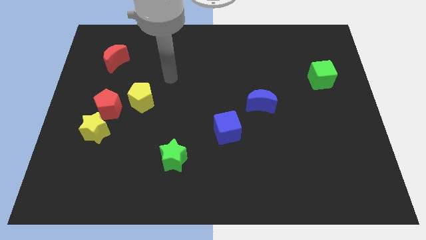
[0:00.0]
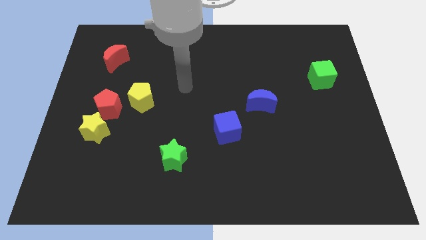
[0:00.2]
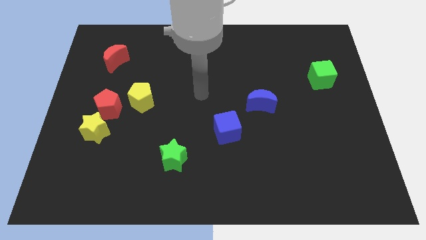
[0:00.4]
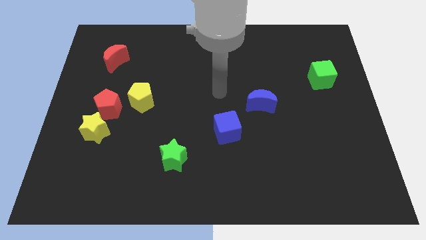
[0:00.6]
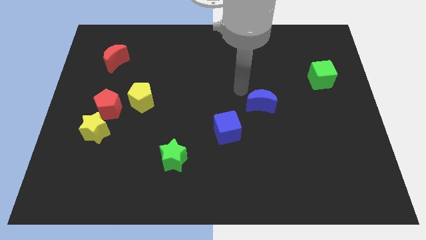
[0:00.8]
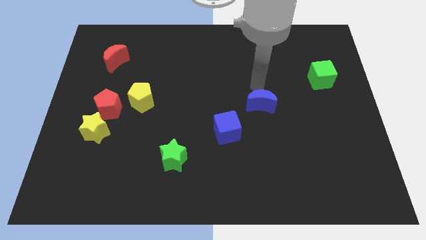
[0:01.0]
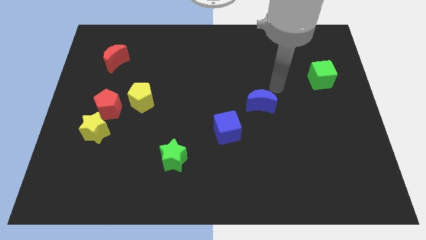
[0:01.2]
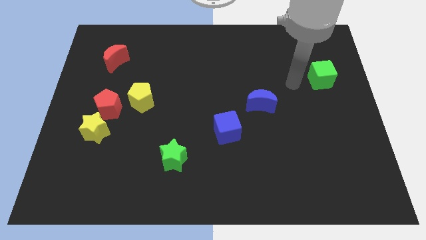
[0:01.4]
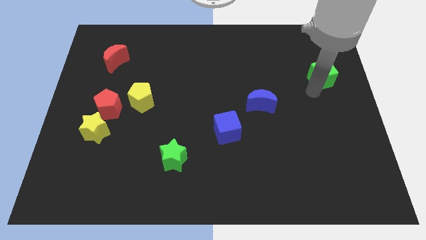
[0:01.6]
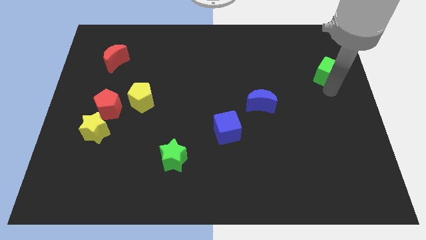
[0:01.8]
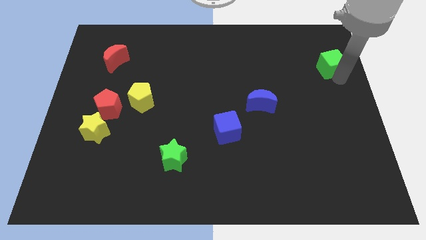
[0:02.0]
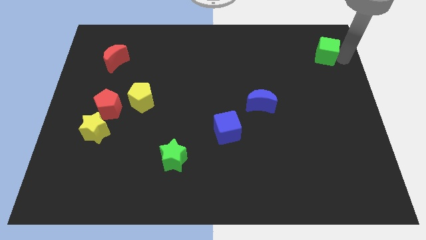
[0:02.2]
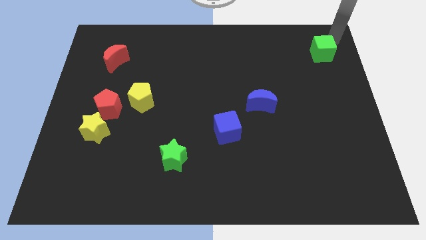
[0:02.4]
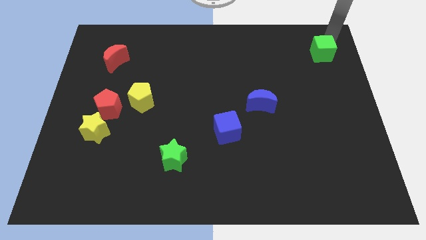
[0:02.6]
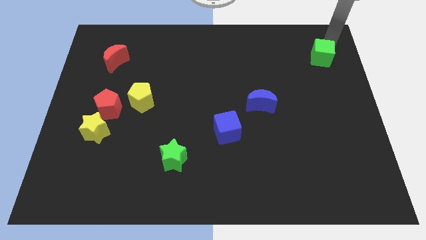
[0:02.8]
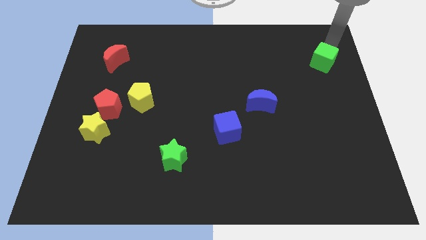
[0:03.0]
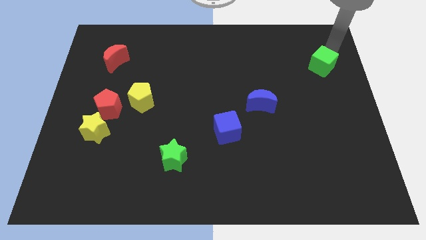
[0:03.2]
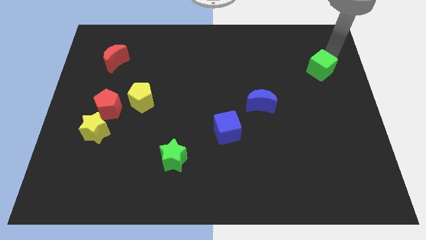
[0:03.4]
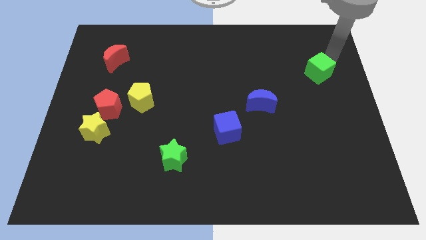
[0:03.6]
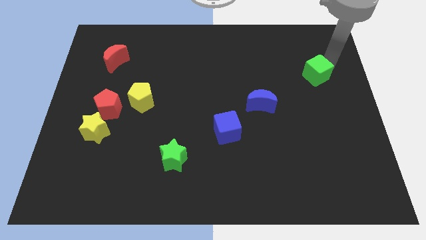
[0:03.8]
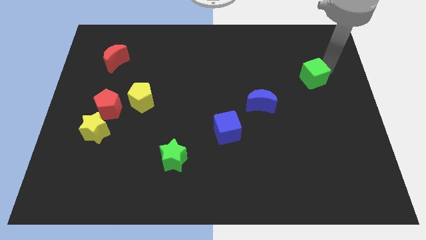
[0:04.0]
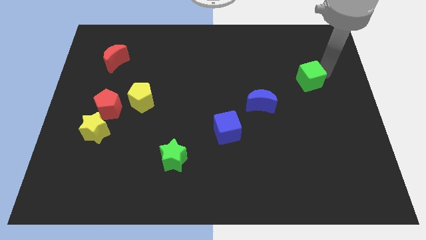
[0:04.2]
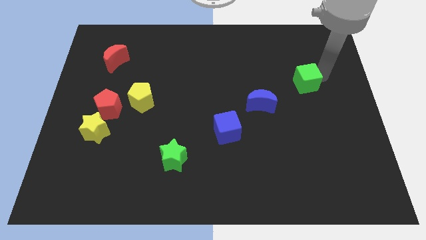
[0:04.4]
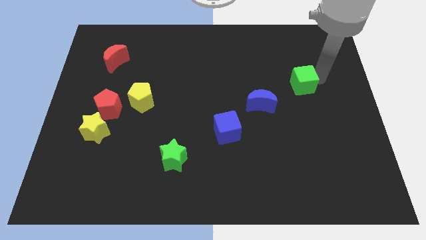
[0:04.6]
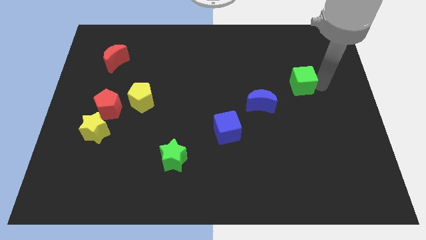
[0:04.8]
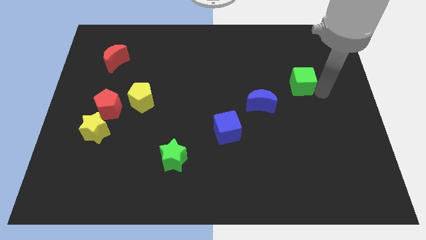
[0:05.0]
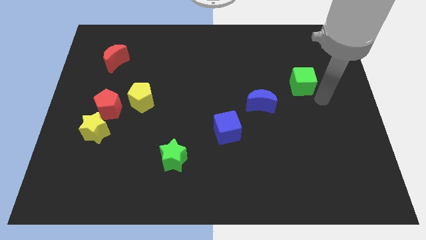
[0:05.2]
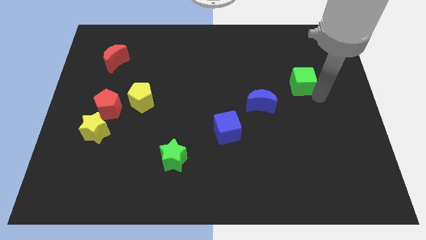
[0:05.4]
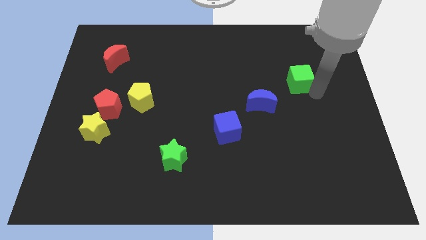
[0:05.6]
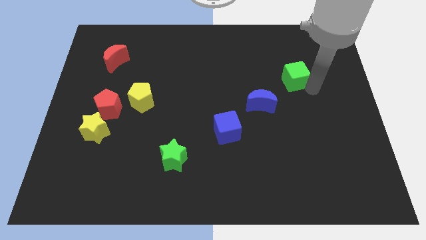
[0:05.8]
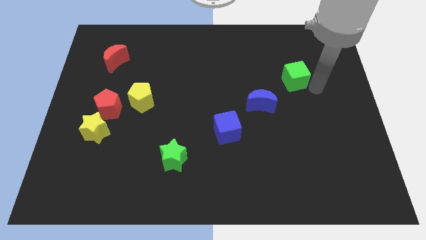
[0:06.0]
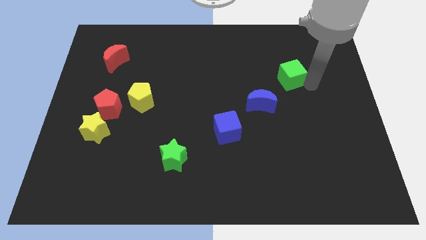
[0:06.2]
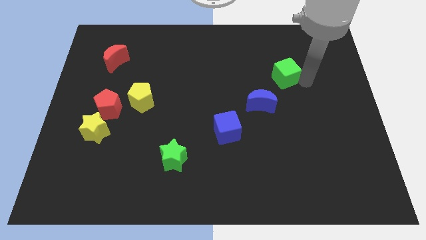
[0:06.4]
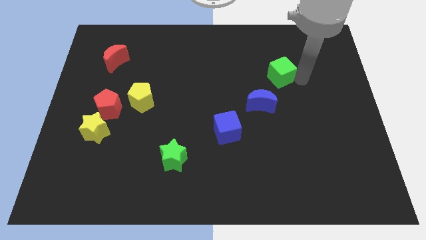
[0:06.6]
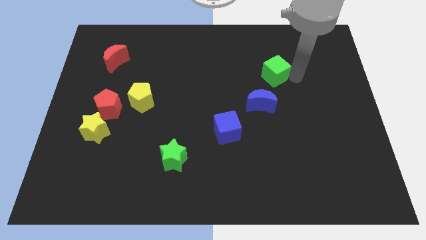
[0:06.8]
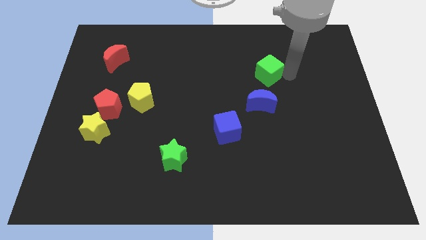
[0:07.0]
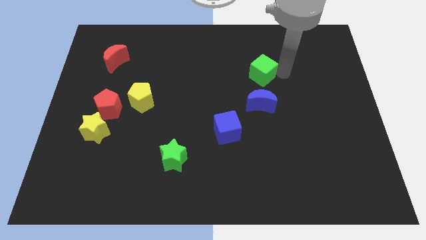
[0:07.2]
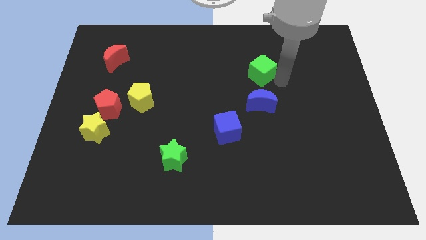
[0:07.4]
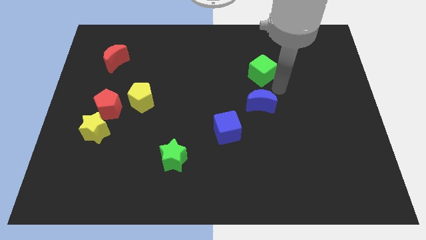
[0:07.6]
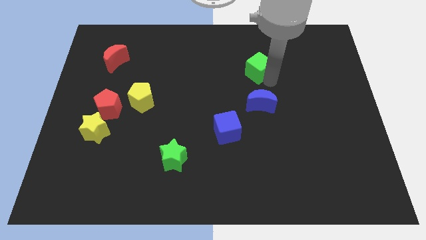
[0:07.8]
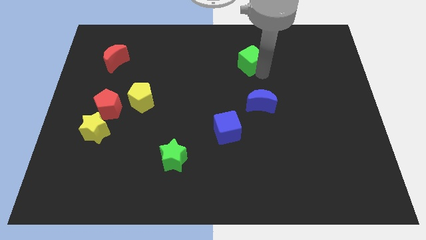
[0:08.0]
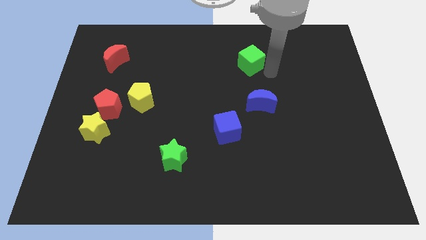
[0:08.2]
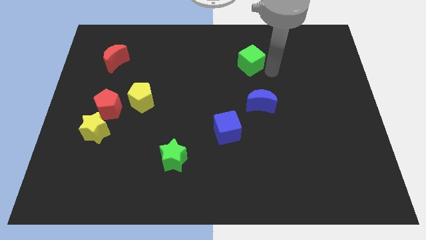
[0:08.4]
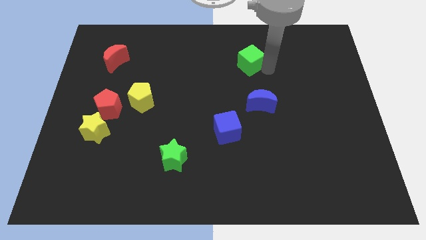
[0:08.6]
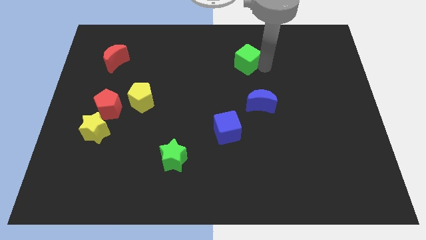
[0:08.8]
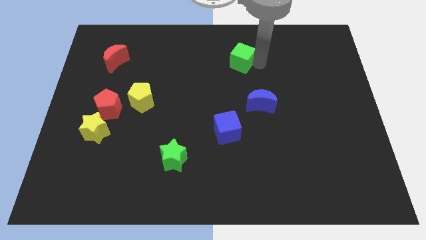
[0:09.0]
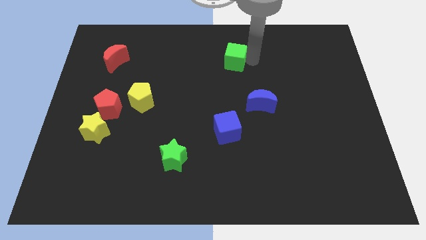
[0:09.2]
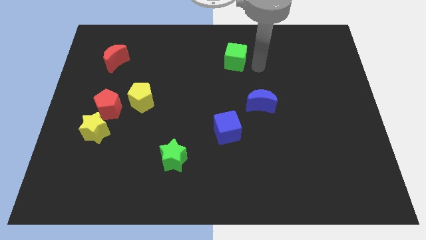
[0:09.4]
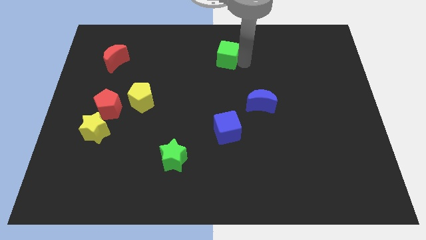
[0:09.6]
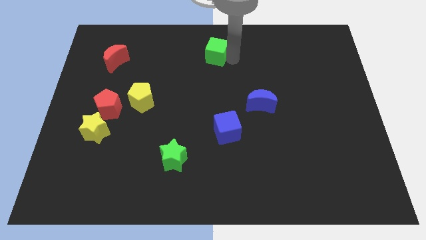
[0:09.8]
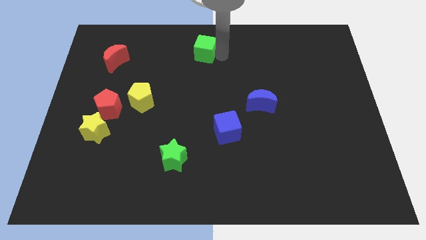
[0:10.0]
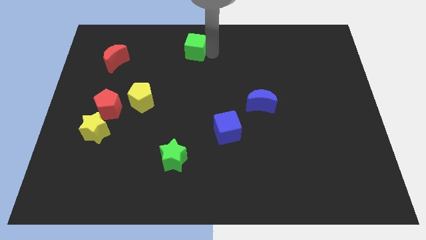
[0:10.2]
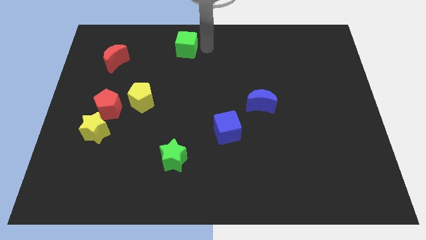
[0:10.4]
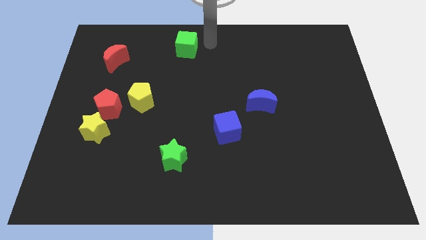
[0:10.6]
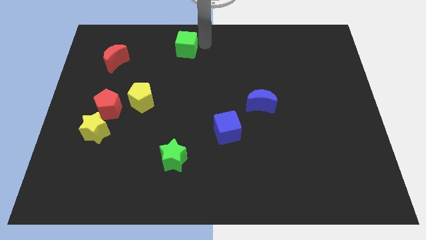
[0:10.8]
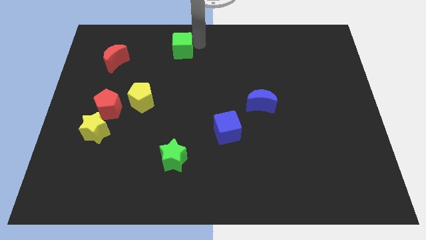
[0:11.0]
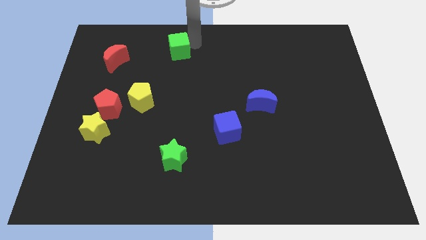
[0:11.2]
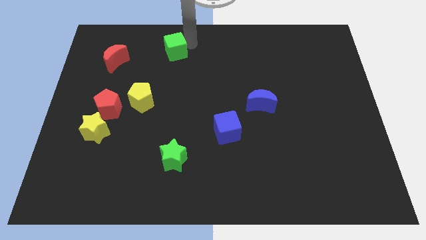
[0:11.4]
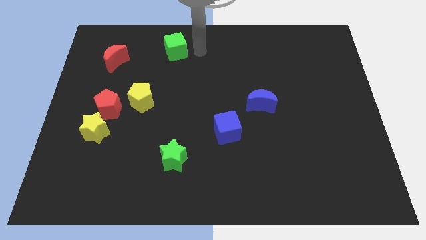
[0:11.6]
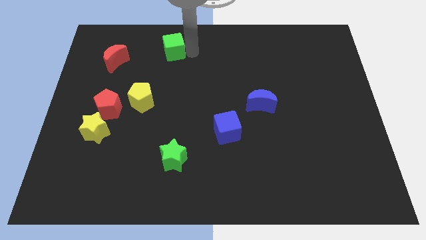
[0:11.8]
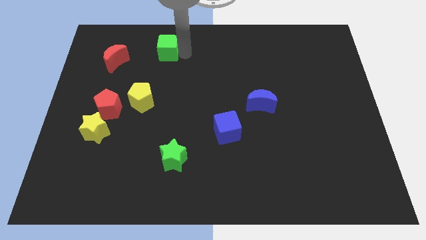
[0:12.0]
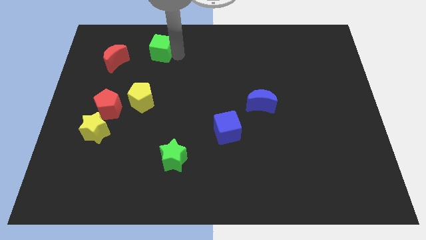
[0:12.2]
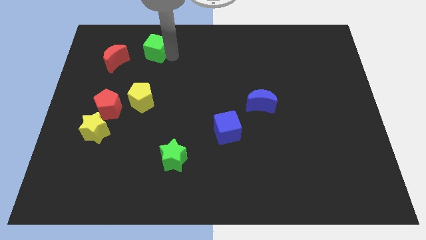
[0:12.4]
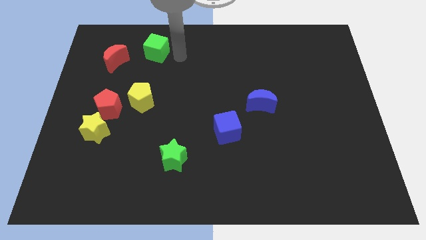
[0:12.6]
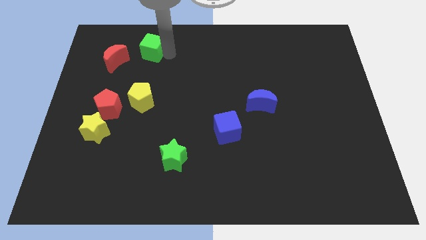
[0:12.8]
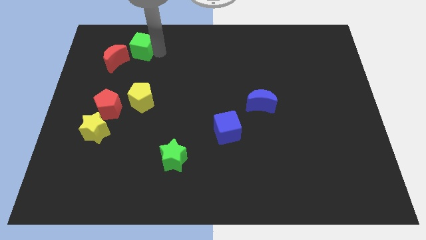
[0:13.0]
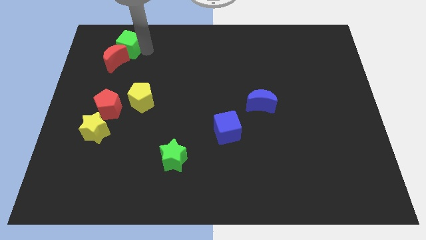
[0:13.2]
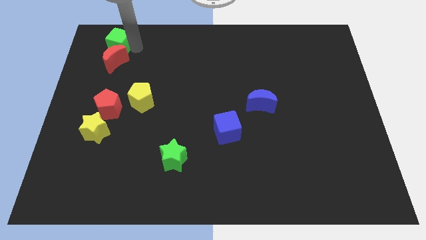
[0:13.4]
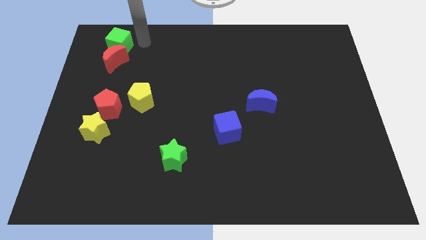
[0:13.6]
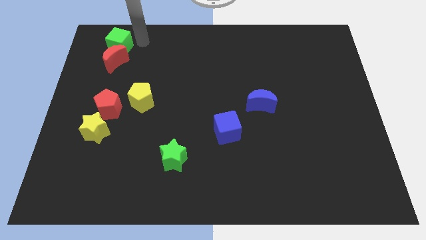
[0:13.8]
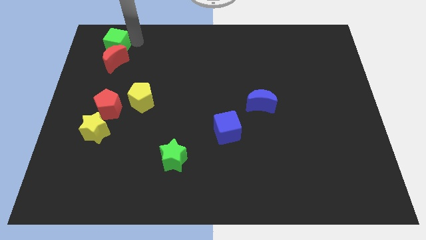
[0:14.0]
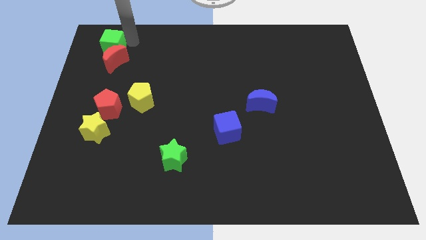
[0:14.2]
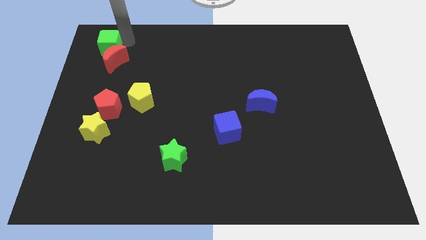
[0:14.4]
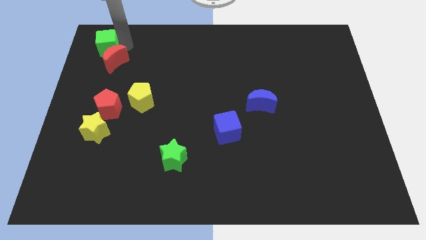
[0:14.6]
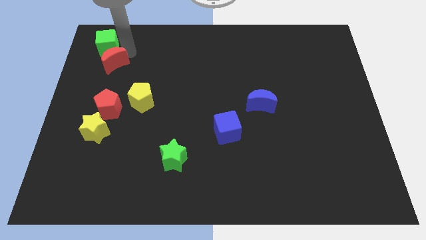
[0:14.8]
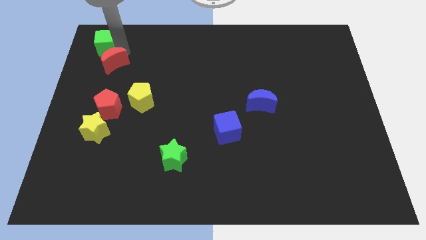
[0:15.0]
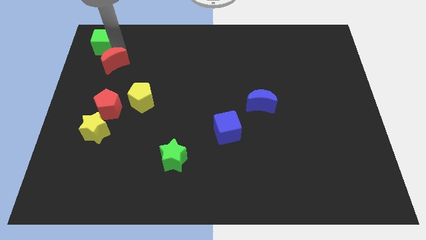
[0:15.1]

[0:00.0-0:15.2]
slide the green cube to the top left of the board
